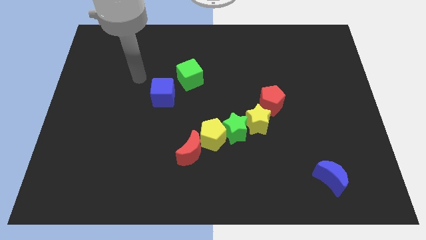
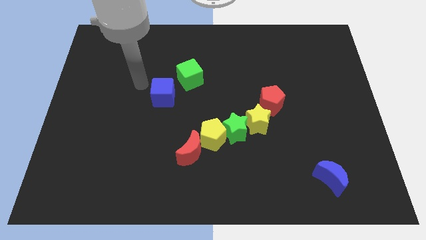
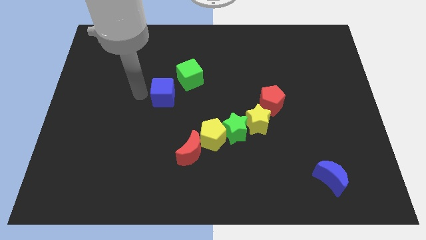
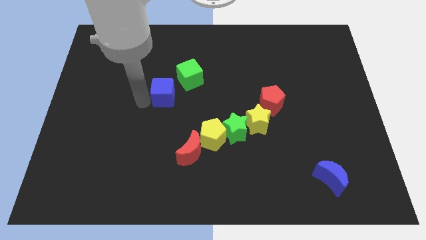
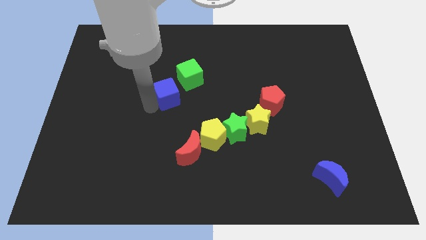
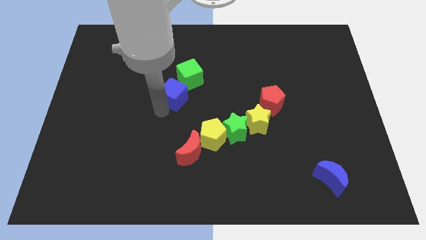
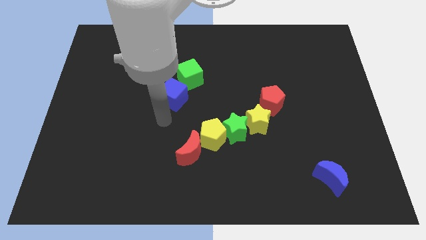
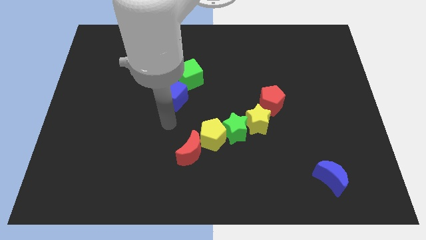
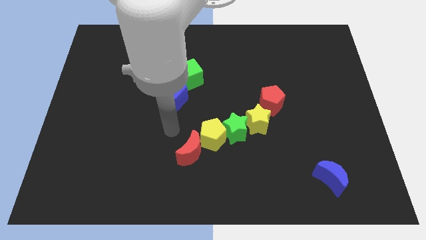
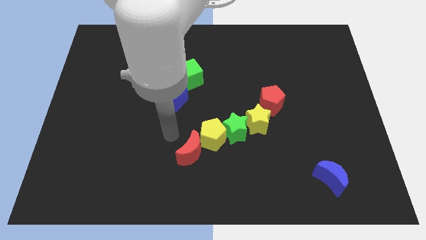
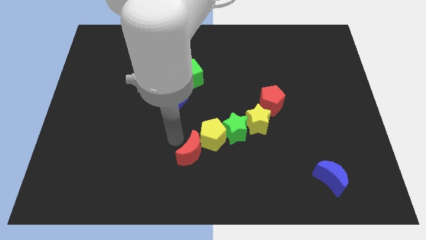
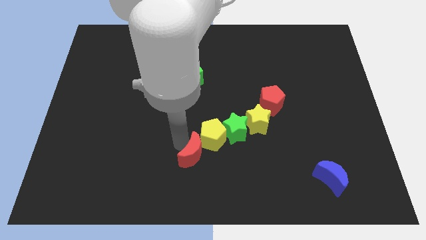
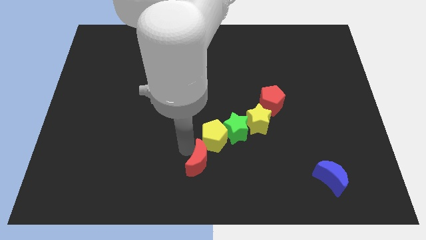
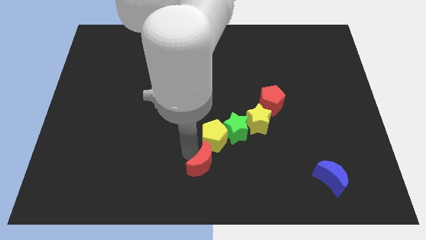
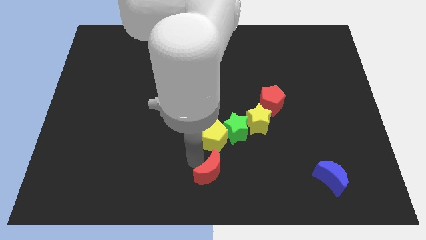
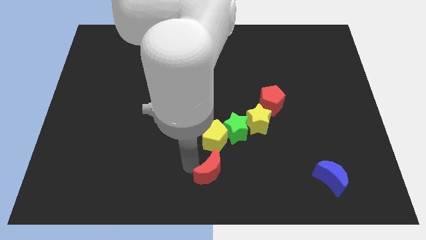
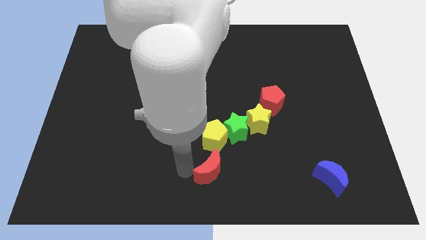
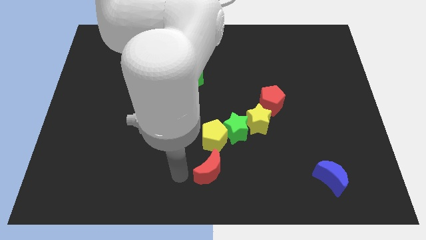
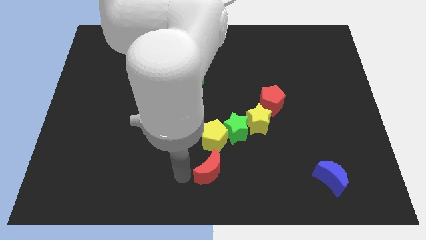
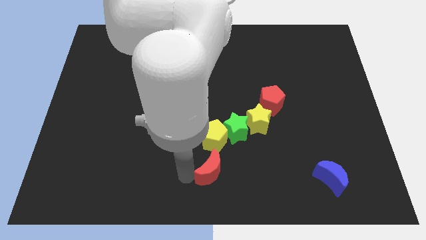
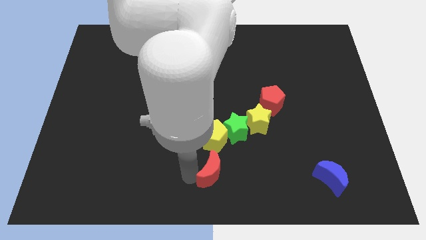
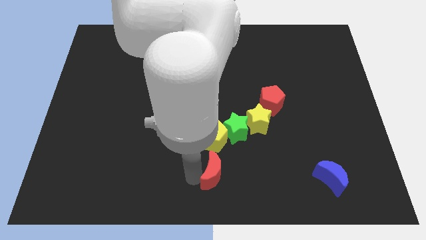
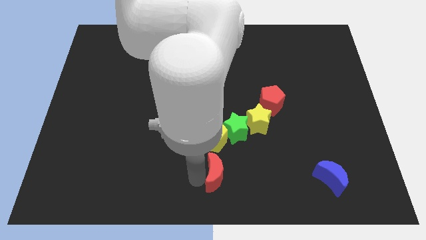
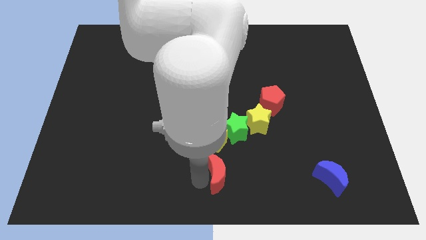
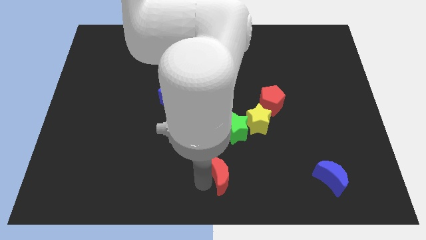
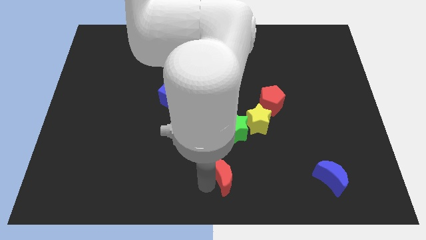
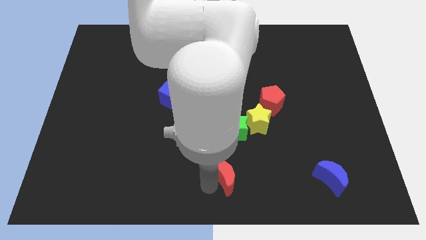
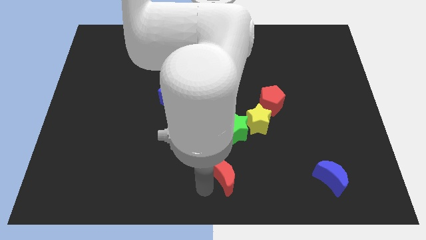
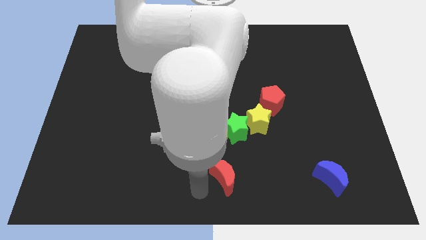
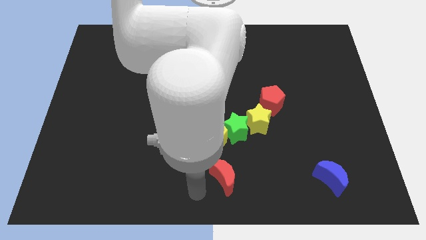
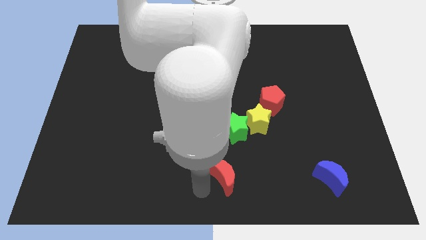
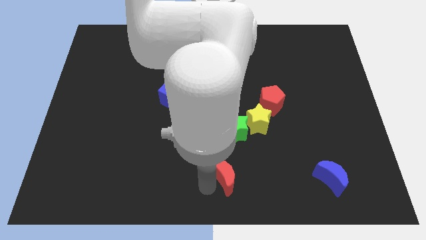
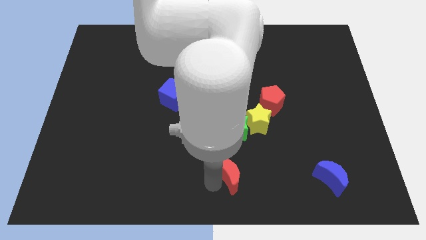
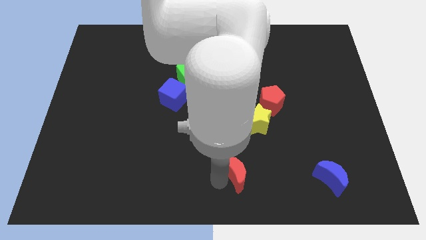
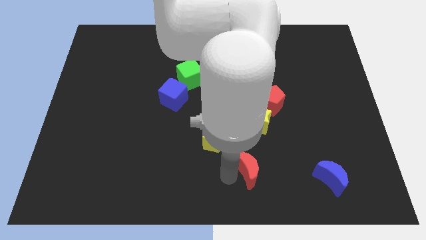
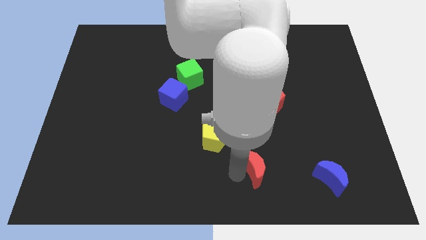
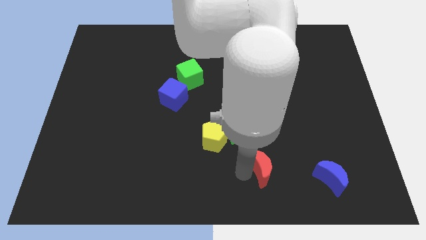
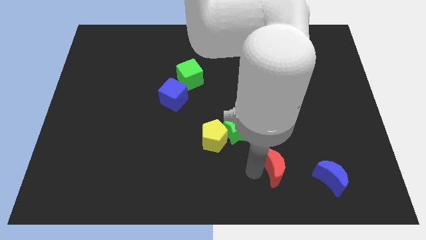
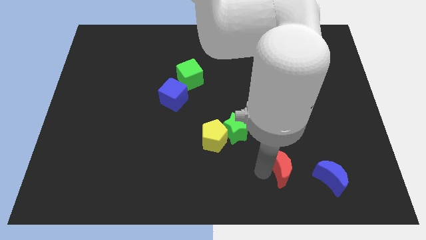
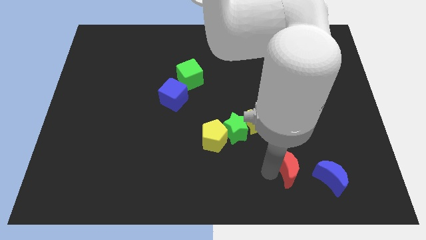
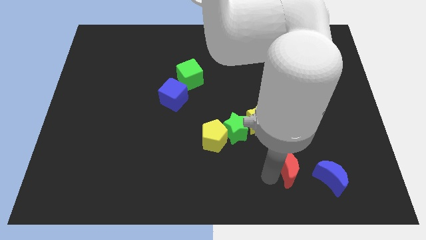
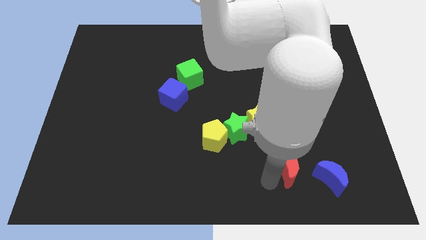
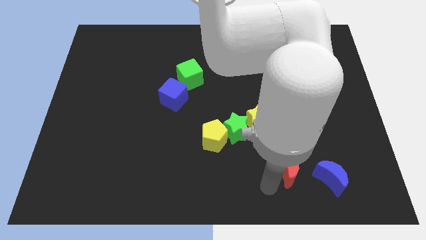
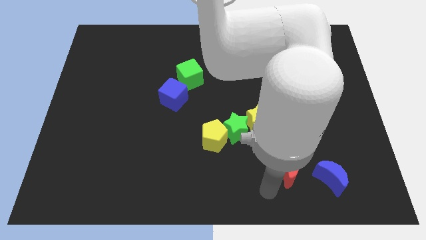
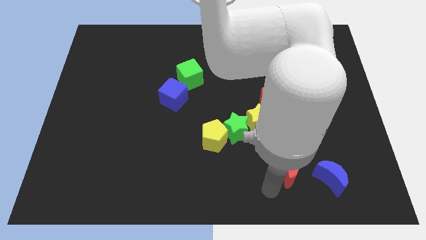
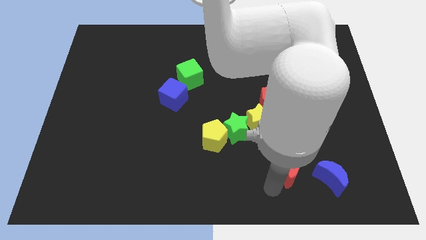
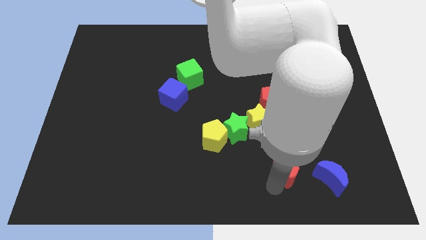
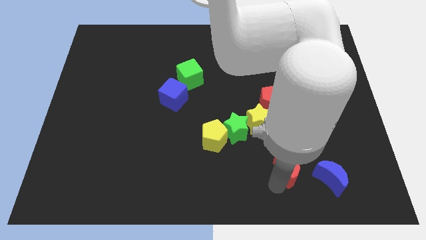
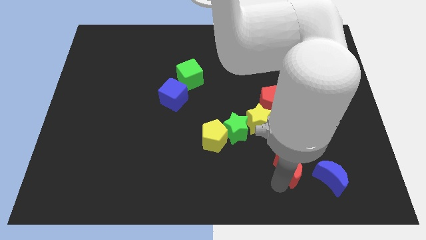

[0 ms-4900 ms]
move the red moon to the right

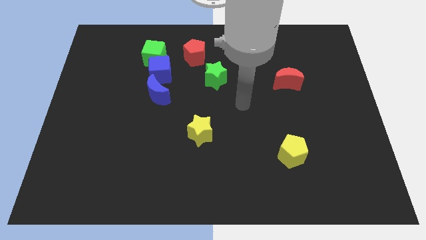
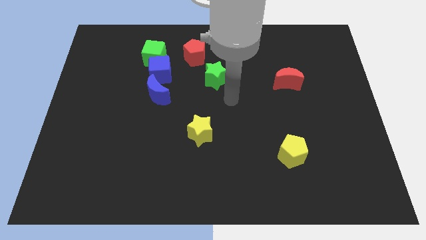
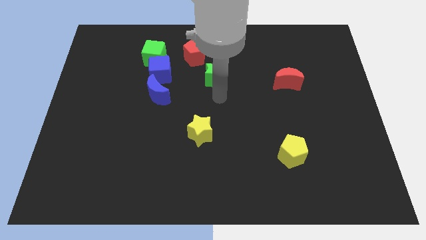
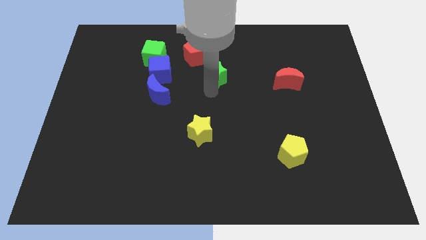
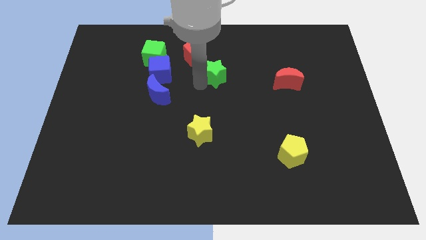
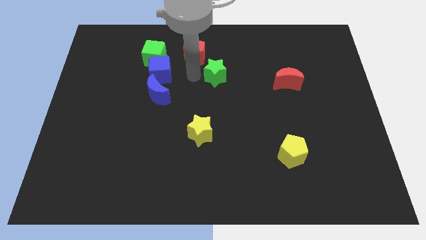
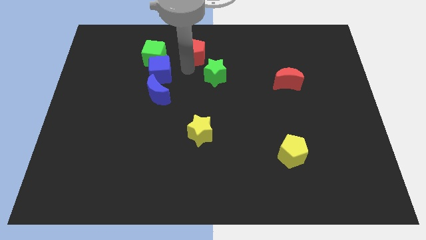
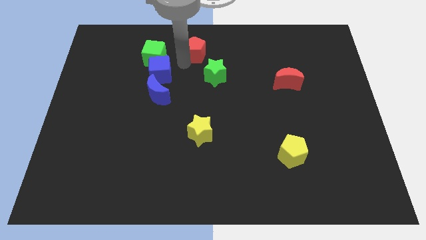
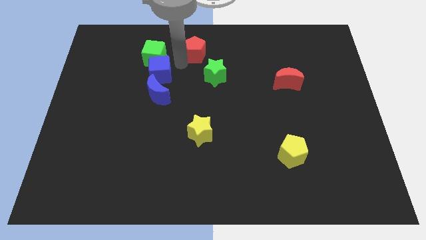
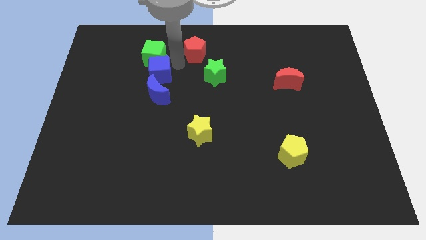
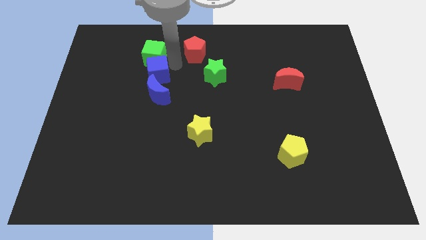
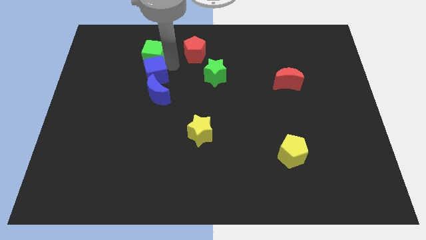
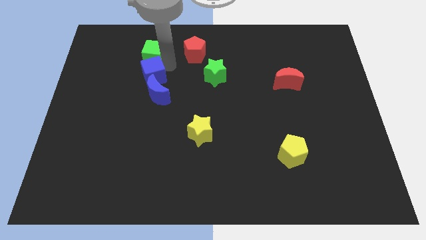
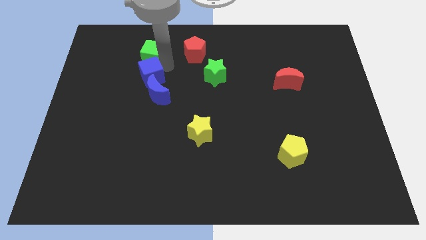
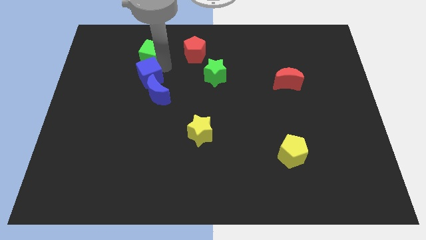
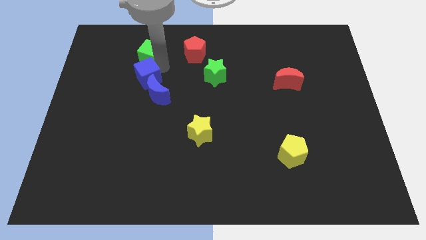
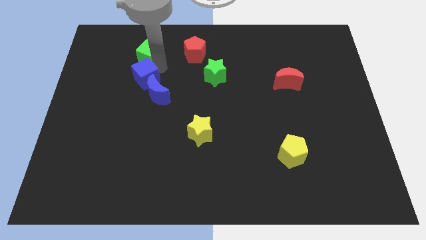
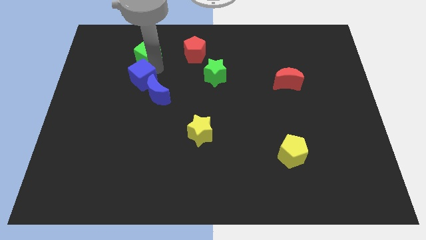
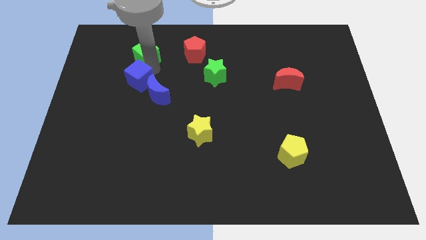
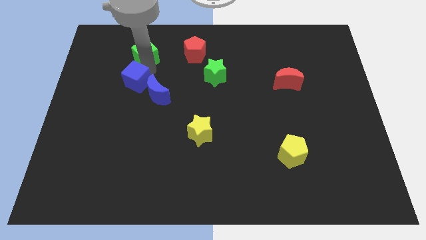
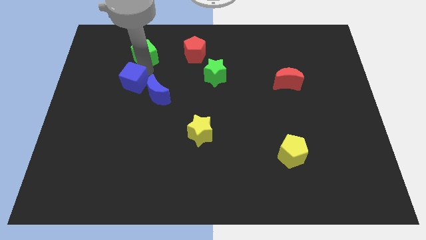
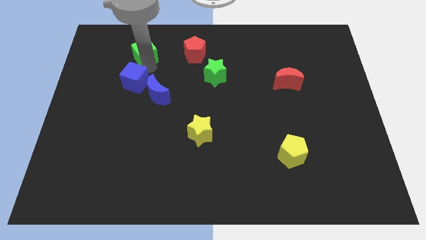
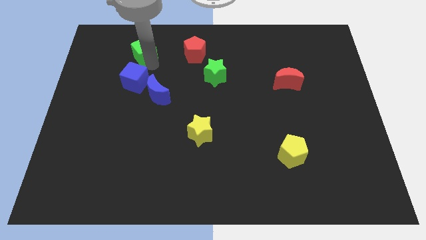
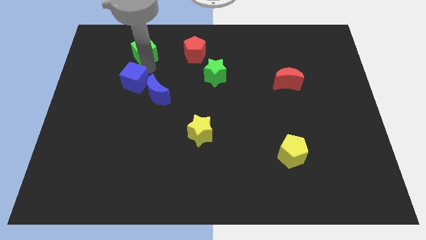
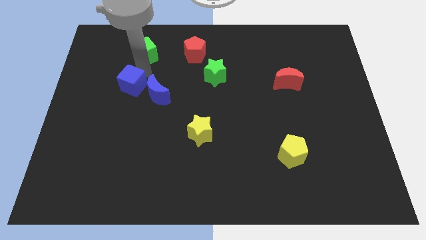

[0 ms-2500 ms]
push the blue cube a little down and then to the left

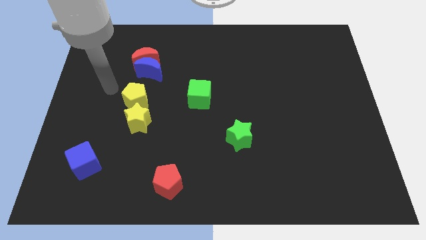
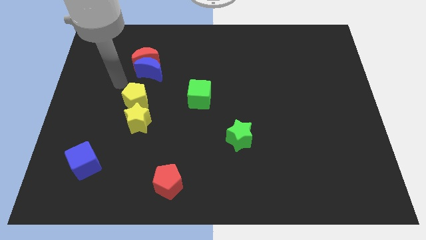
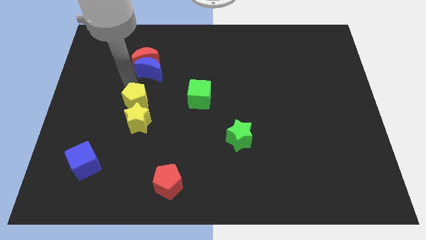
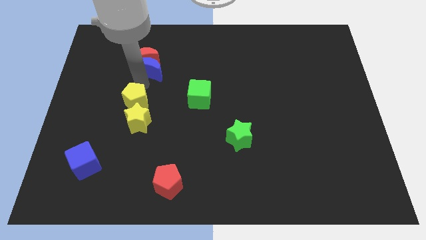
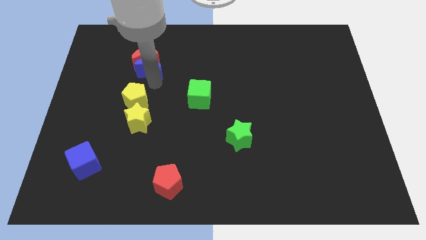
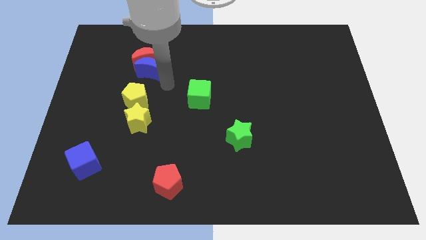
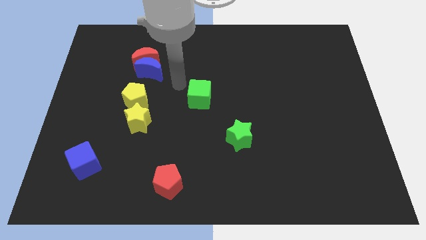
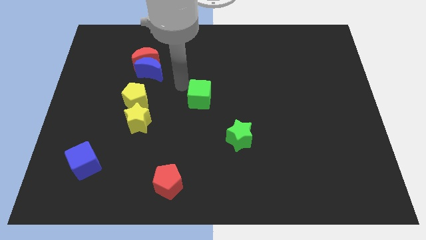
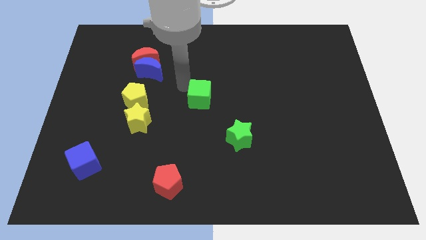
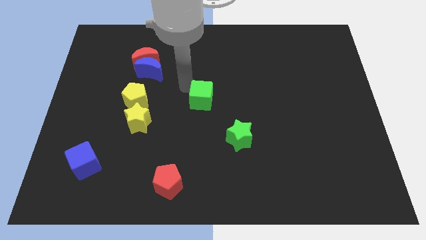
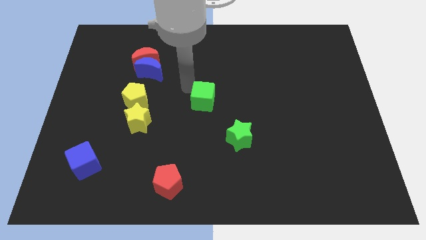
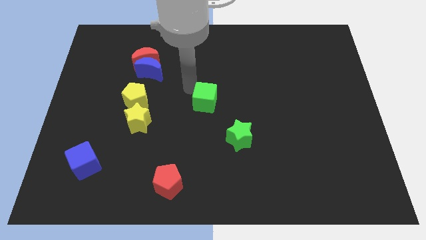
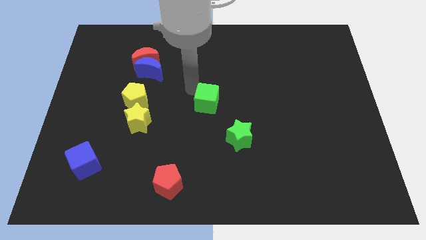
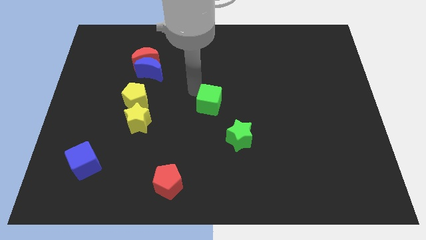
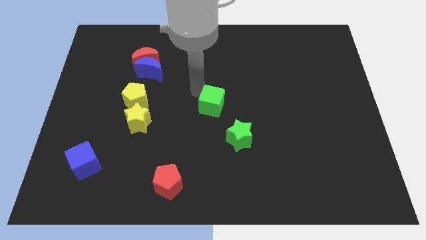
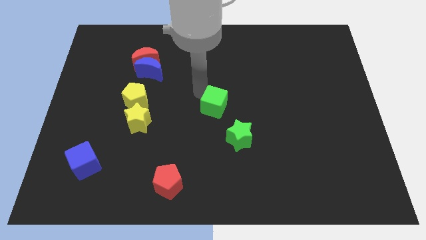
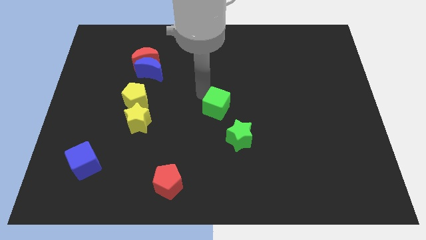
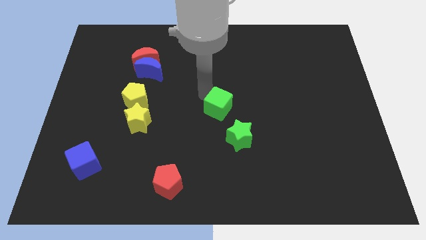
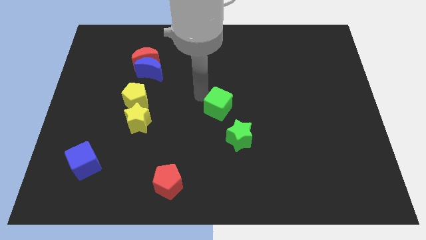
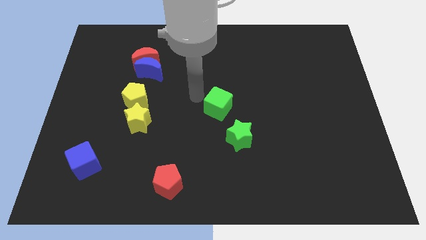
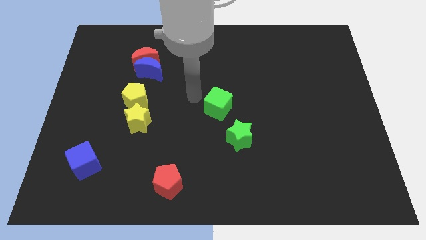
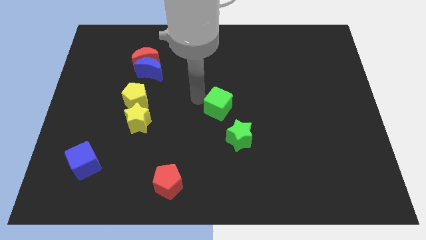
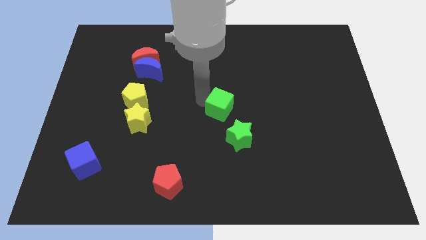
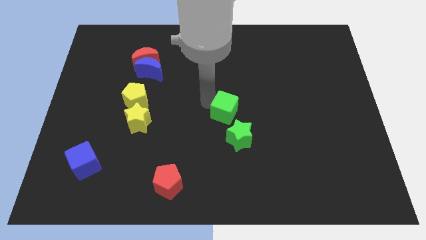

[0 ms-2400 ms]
push the green cube down and then to the right a little
